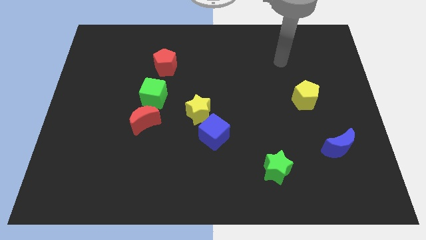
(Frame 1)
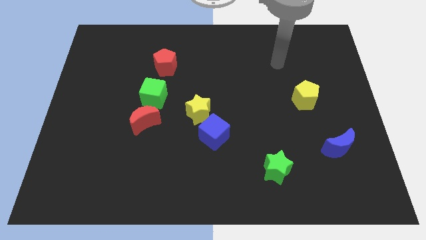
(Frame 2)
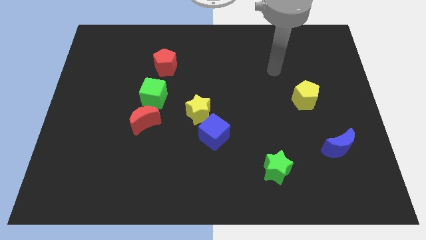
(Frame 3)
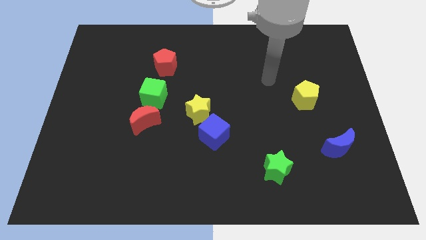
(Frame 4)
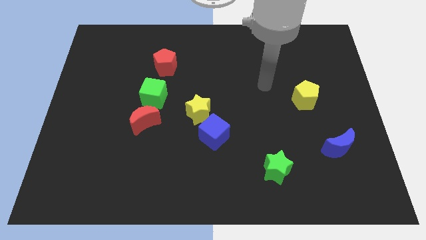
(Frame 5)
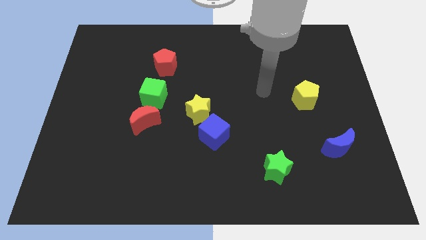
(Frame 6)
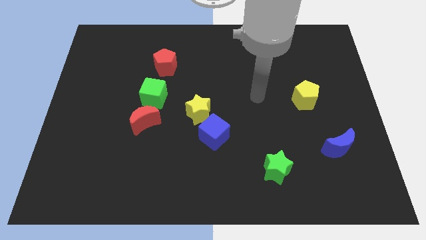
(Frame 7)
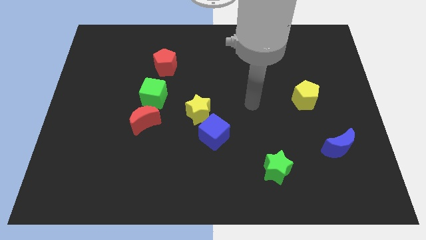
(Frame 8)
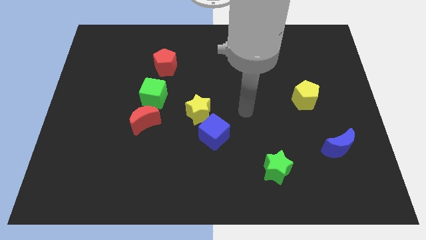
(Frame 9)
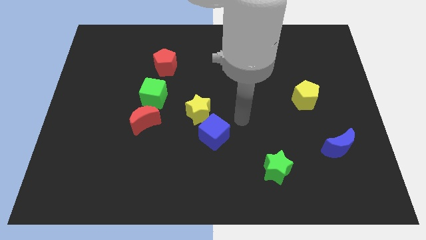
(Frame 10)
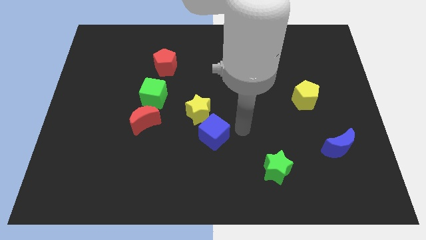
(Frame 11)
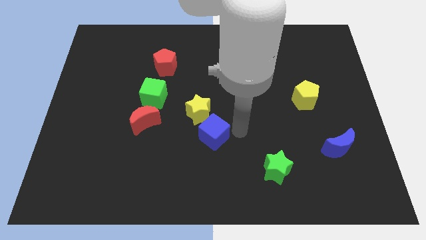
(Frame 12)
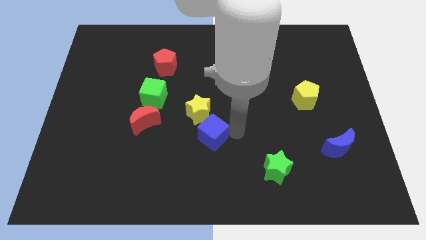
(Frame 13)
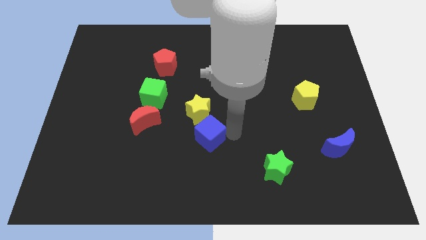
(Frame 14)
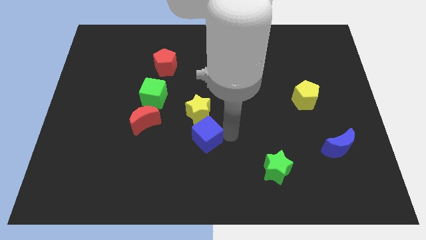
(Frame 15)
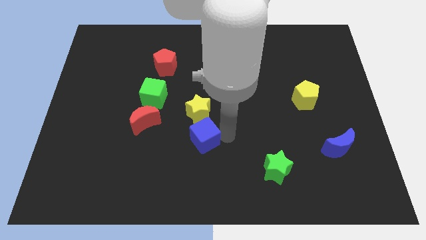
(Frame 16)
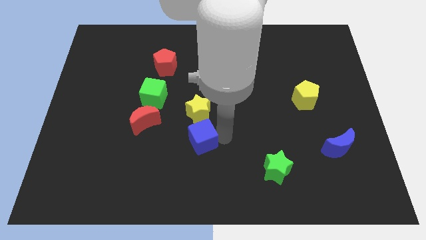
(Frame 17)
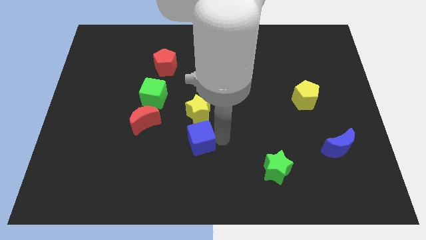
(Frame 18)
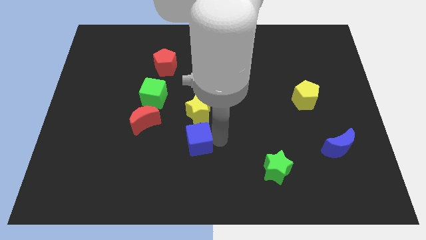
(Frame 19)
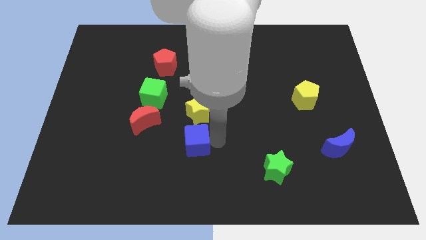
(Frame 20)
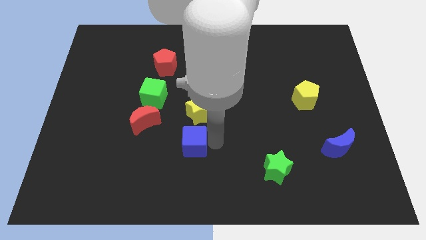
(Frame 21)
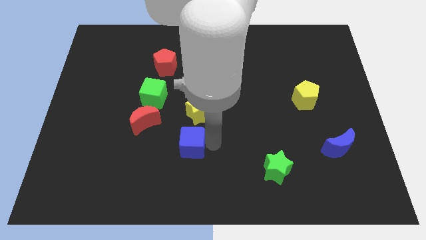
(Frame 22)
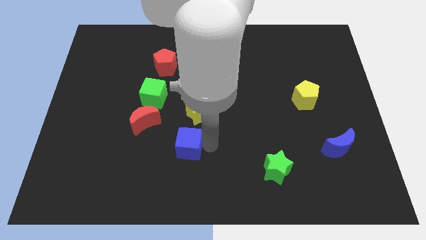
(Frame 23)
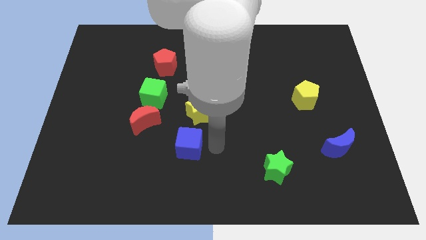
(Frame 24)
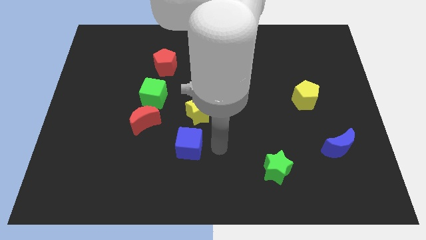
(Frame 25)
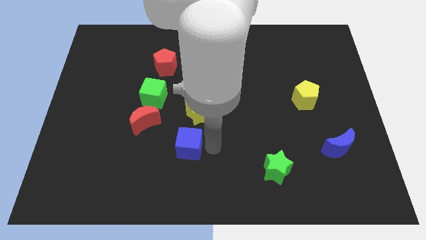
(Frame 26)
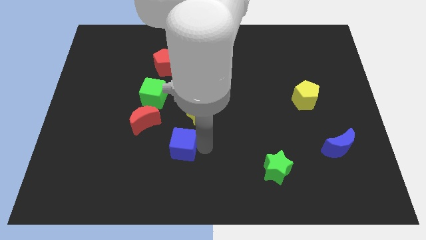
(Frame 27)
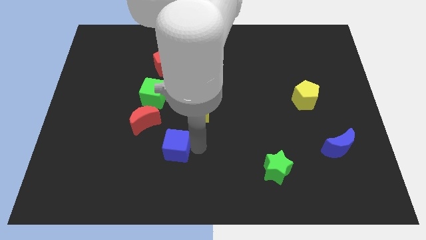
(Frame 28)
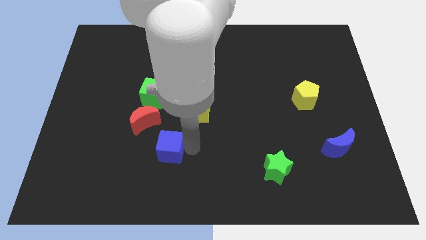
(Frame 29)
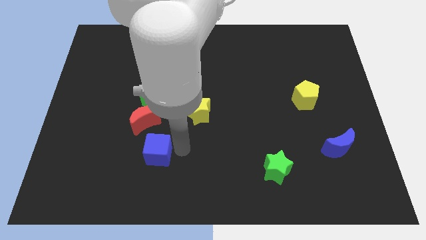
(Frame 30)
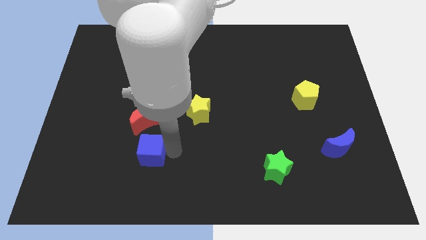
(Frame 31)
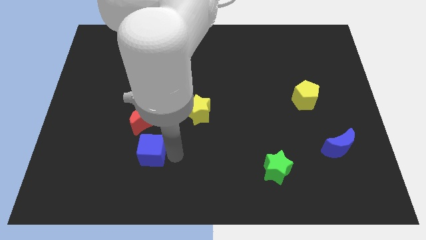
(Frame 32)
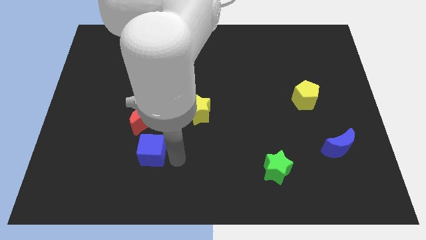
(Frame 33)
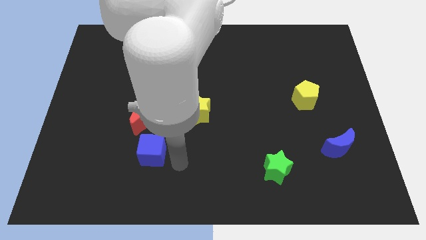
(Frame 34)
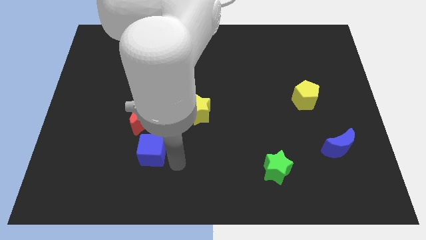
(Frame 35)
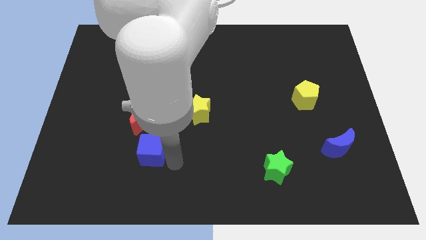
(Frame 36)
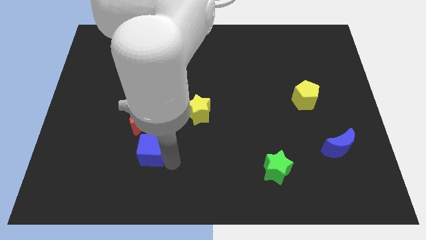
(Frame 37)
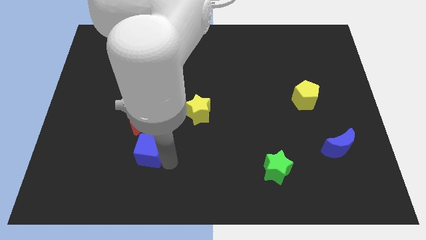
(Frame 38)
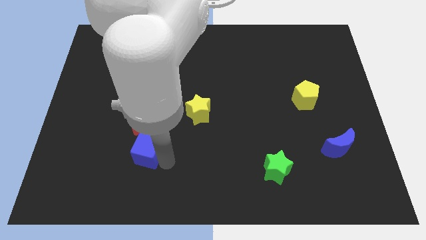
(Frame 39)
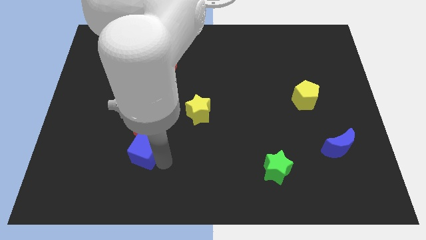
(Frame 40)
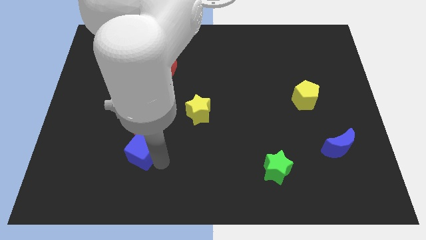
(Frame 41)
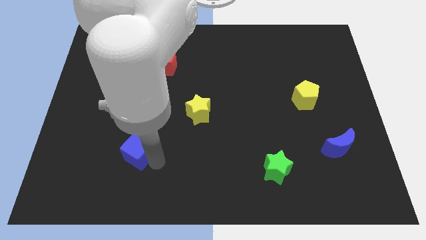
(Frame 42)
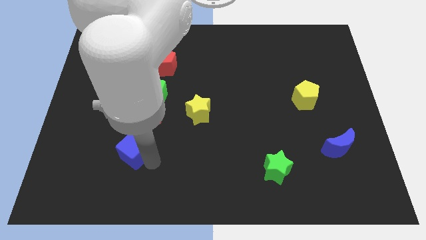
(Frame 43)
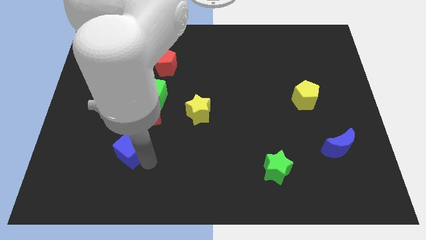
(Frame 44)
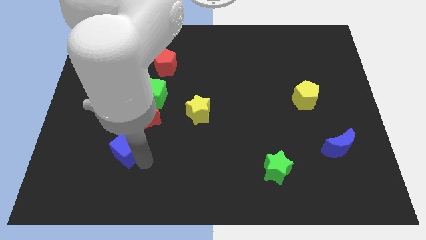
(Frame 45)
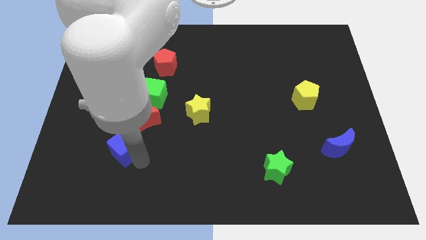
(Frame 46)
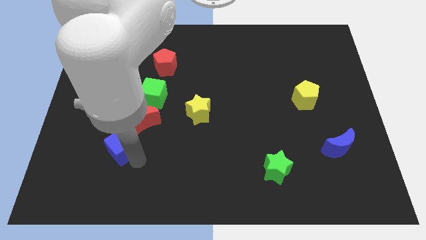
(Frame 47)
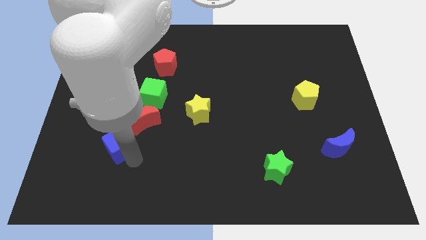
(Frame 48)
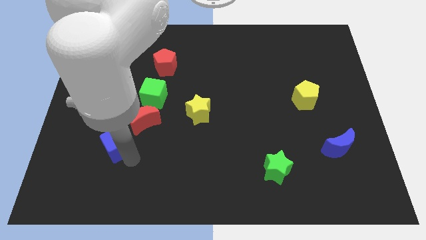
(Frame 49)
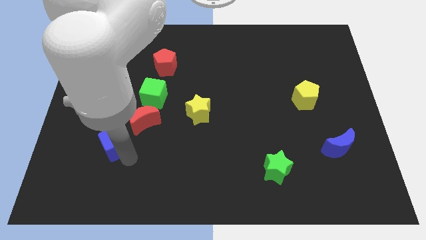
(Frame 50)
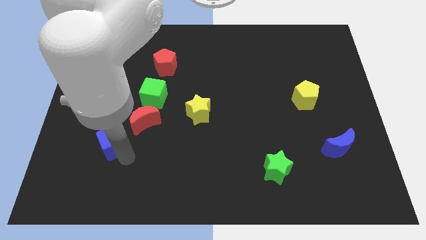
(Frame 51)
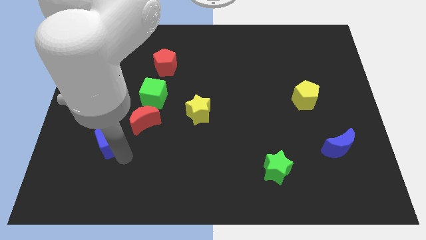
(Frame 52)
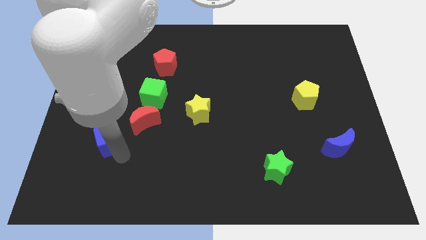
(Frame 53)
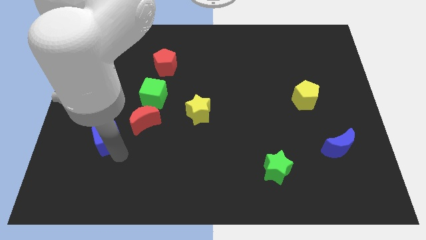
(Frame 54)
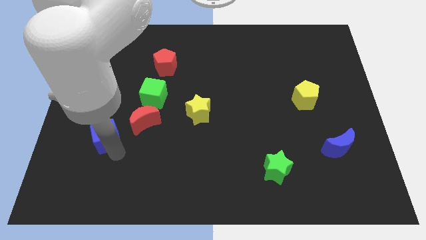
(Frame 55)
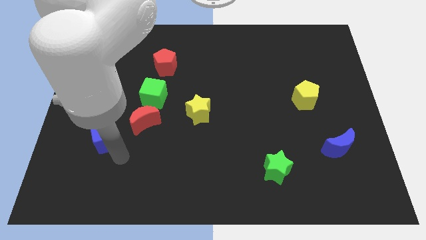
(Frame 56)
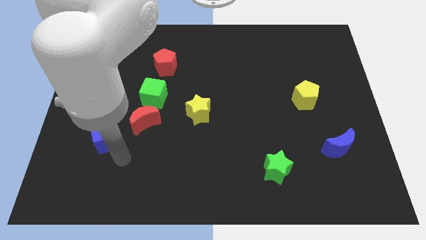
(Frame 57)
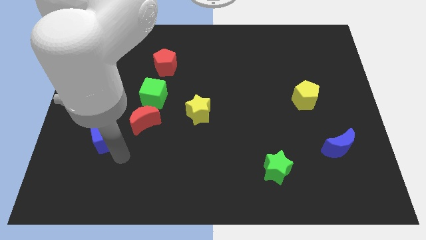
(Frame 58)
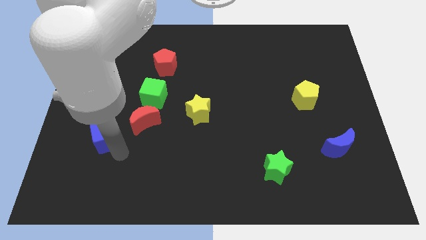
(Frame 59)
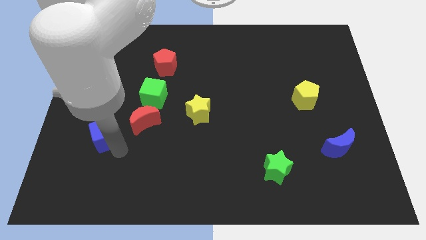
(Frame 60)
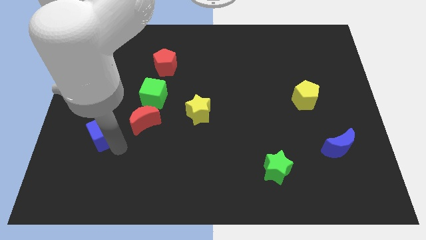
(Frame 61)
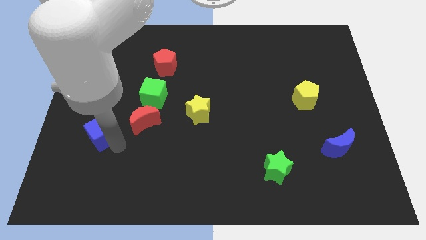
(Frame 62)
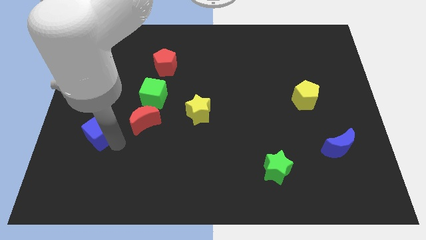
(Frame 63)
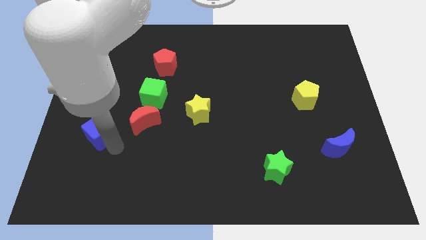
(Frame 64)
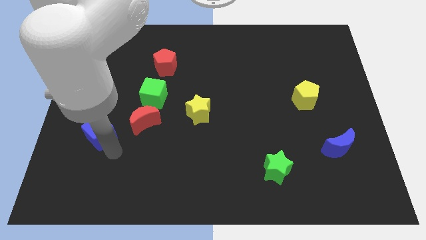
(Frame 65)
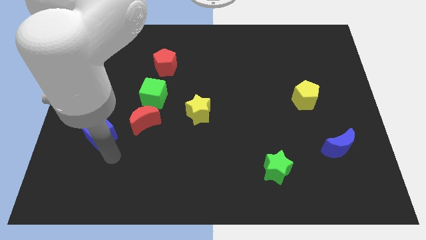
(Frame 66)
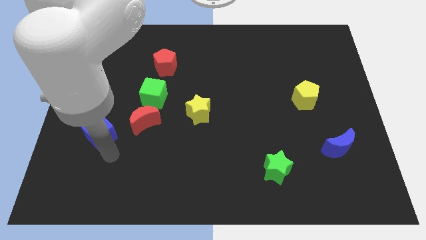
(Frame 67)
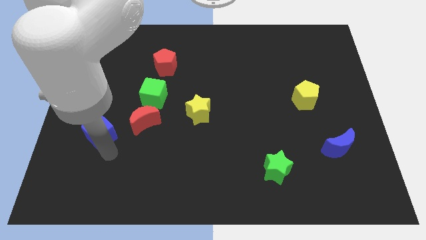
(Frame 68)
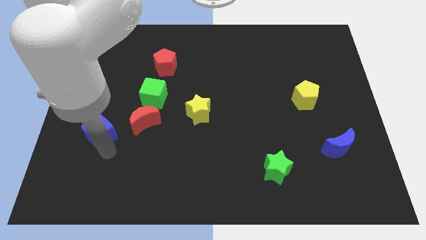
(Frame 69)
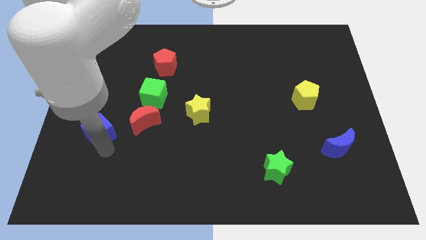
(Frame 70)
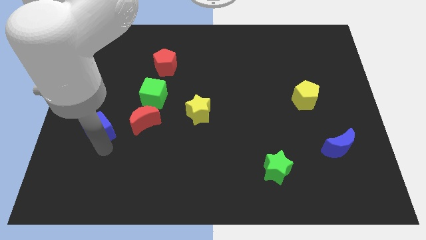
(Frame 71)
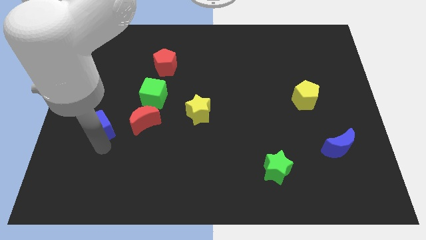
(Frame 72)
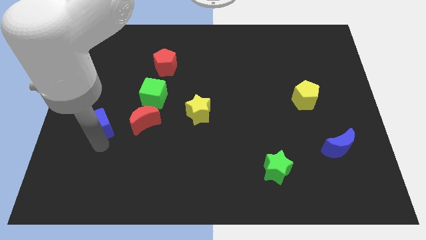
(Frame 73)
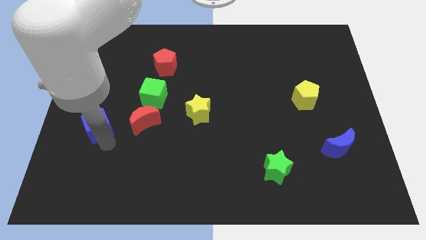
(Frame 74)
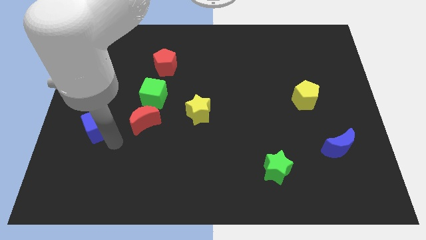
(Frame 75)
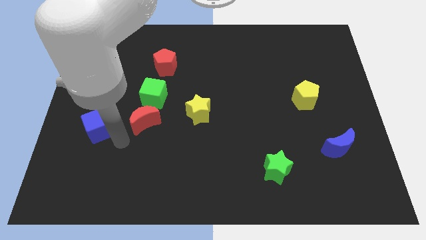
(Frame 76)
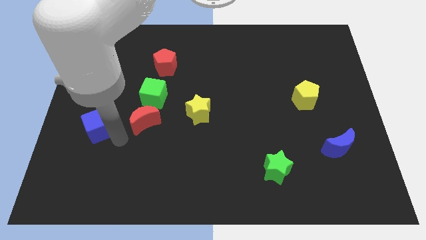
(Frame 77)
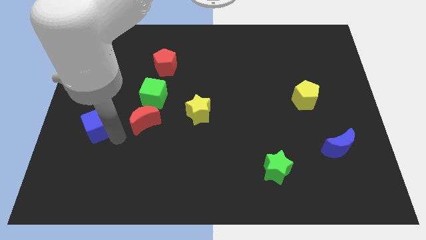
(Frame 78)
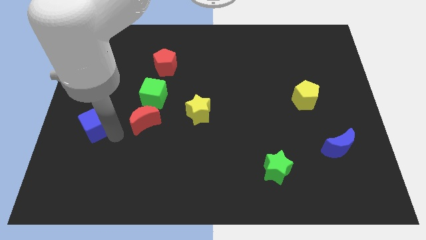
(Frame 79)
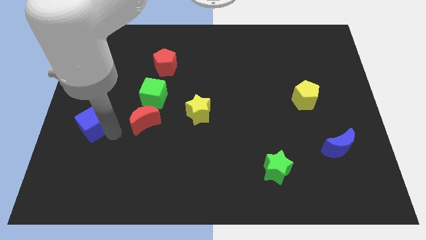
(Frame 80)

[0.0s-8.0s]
move the blue cube to the center left
